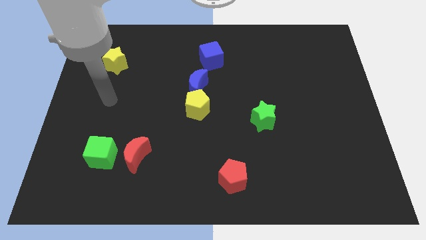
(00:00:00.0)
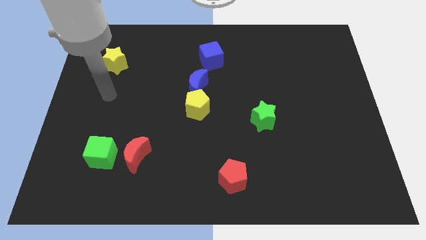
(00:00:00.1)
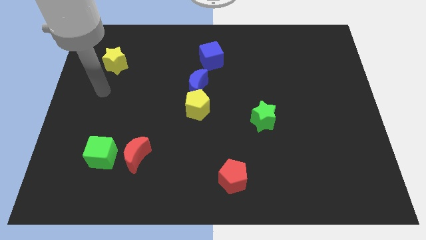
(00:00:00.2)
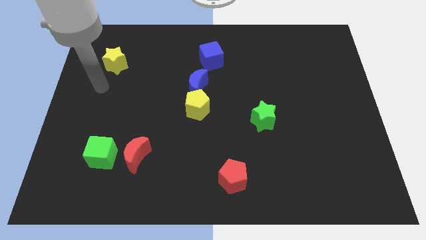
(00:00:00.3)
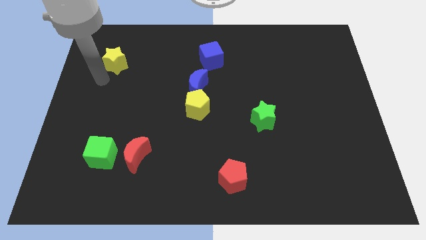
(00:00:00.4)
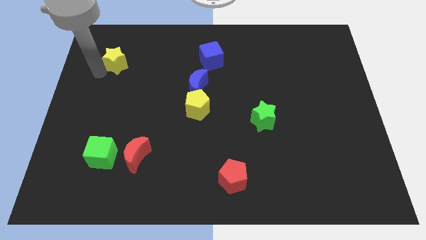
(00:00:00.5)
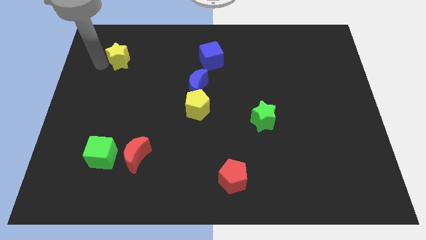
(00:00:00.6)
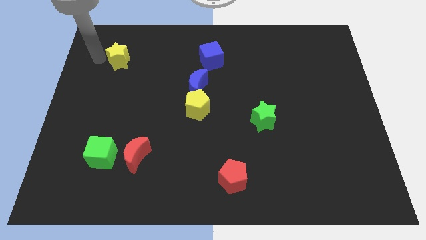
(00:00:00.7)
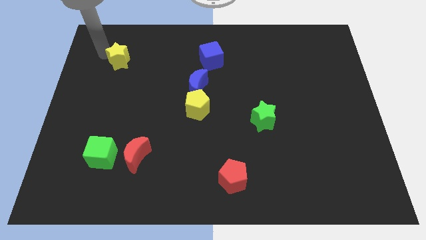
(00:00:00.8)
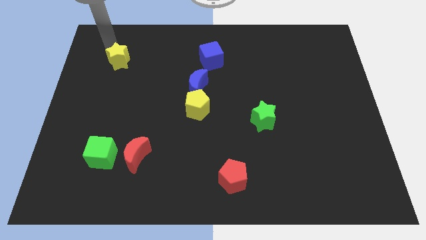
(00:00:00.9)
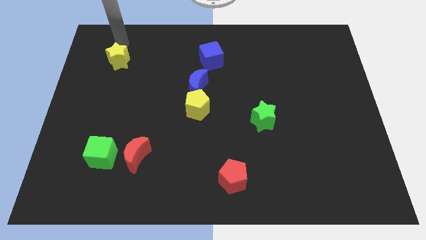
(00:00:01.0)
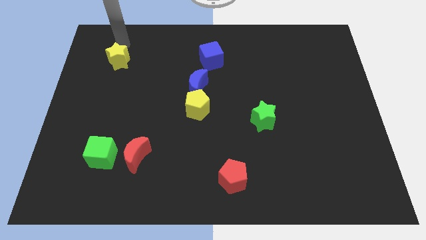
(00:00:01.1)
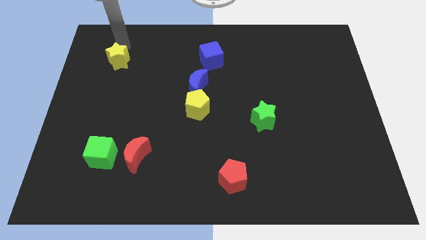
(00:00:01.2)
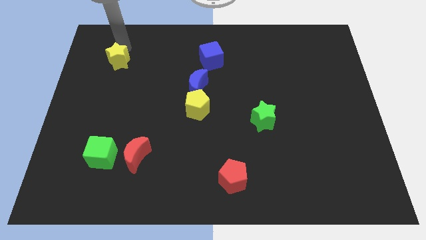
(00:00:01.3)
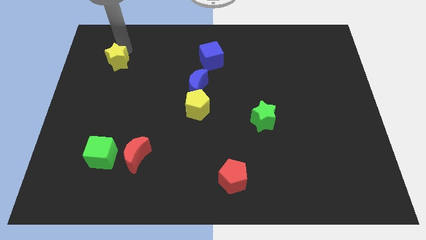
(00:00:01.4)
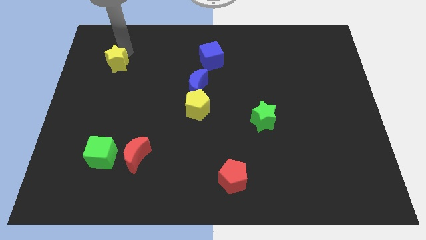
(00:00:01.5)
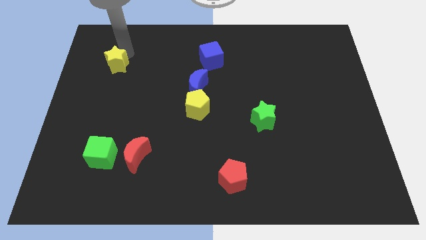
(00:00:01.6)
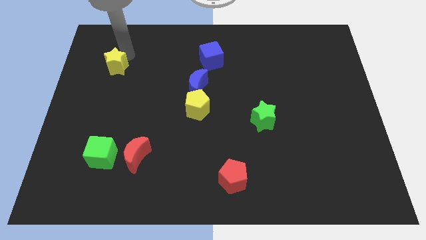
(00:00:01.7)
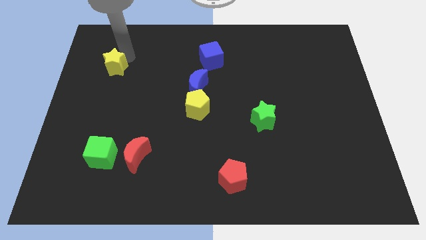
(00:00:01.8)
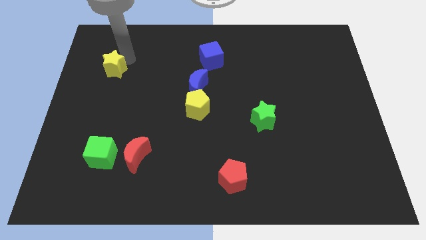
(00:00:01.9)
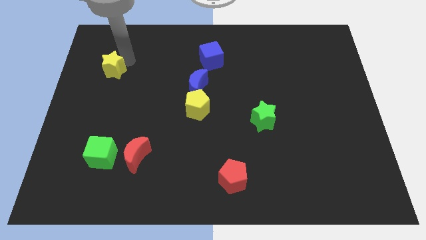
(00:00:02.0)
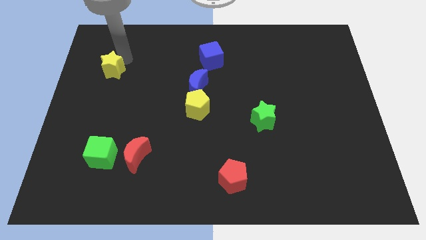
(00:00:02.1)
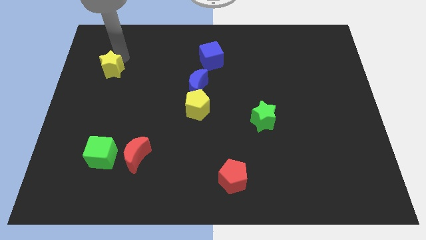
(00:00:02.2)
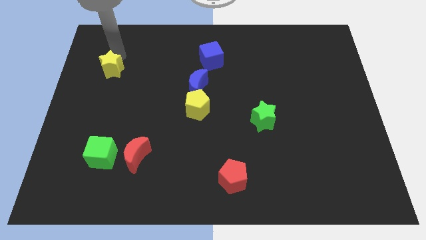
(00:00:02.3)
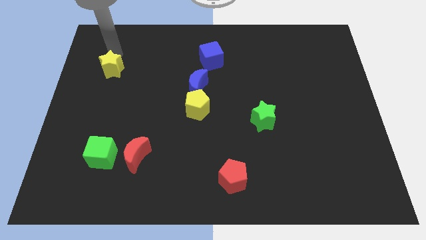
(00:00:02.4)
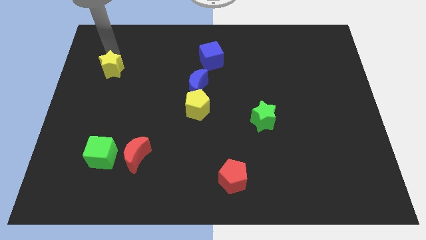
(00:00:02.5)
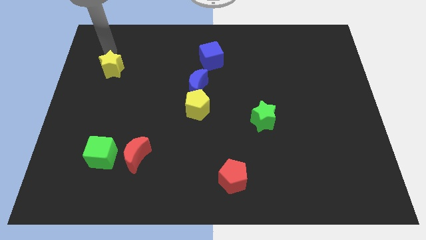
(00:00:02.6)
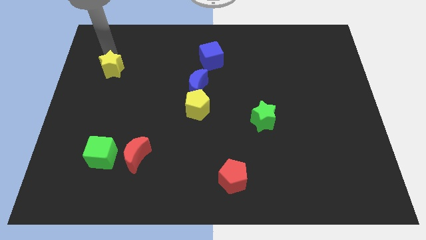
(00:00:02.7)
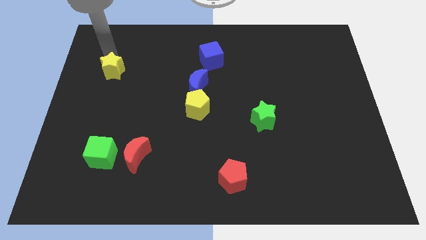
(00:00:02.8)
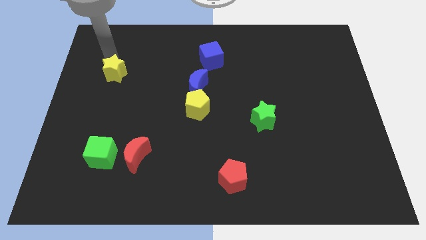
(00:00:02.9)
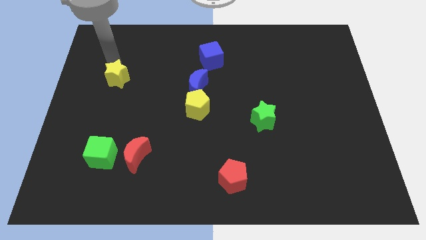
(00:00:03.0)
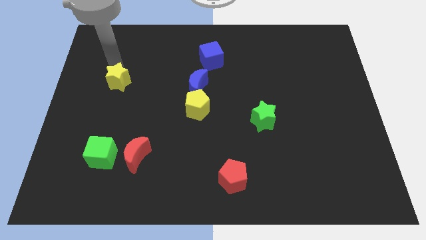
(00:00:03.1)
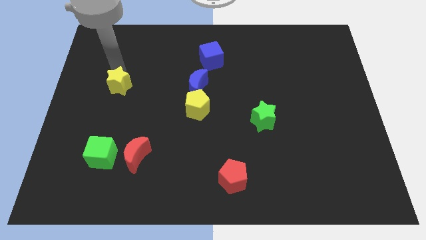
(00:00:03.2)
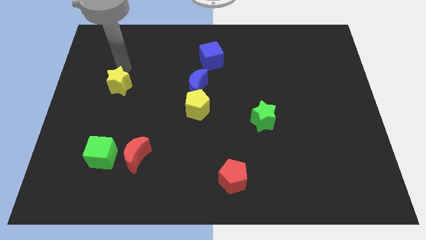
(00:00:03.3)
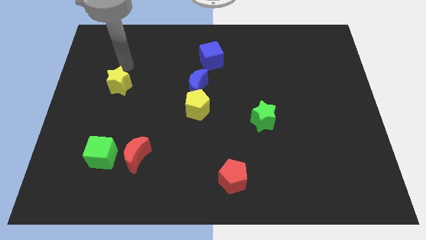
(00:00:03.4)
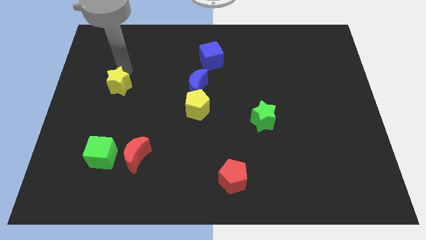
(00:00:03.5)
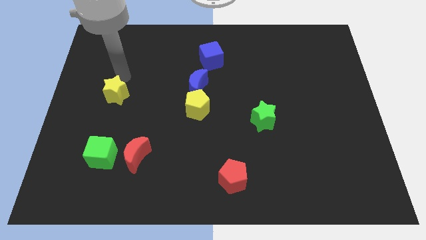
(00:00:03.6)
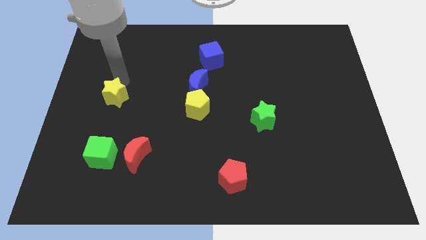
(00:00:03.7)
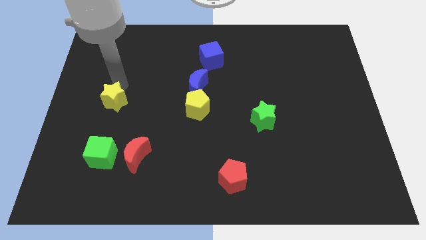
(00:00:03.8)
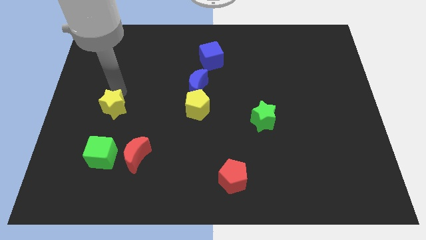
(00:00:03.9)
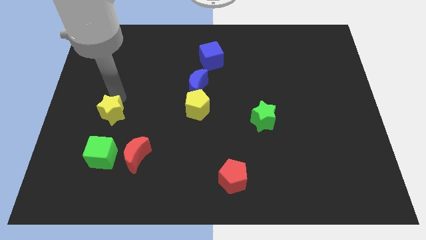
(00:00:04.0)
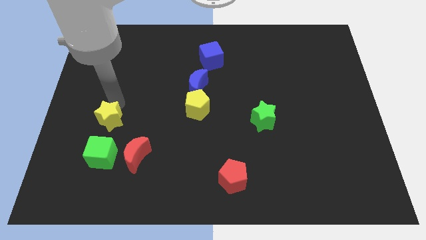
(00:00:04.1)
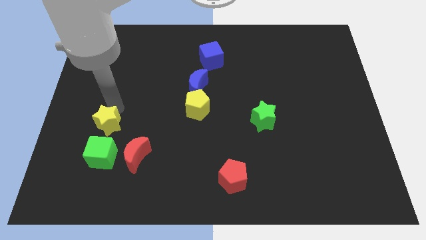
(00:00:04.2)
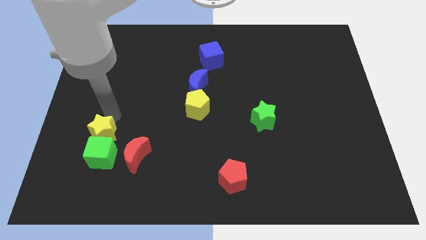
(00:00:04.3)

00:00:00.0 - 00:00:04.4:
push the yellow star close to the green cube

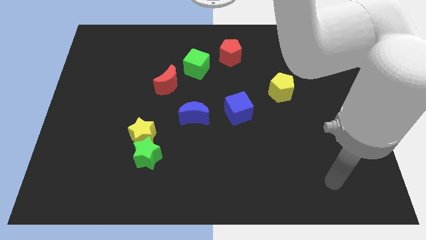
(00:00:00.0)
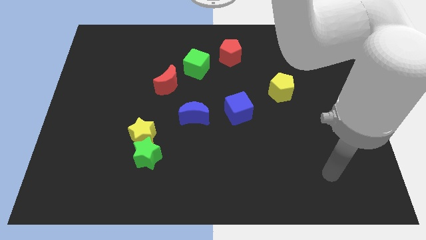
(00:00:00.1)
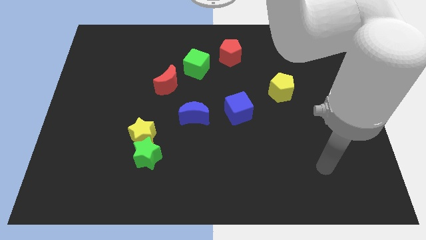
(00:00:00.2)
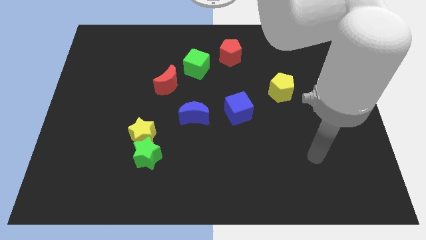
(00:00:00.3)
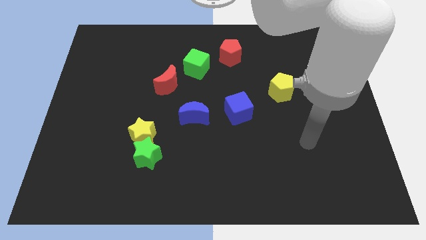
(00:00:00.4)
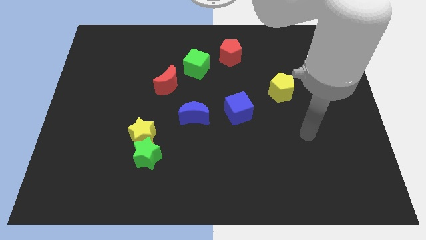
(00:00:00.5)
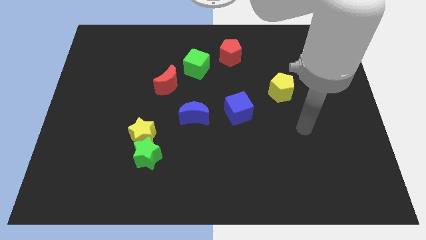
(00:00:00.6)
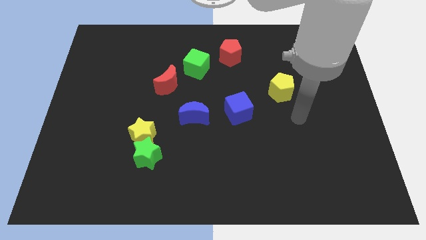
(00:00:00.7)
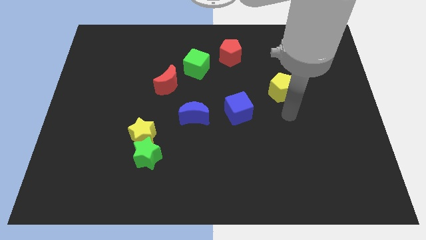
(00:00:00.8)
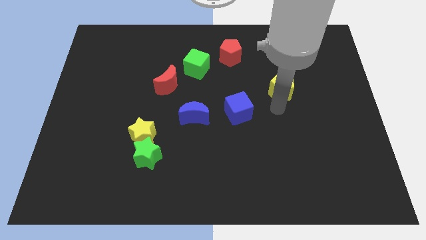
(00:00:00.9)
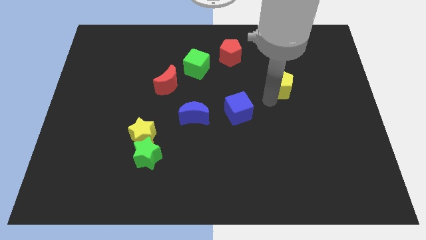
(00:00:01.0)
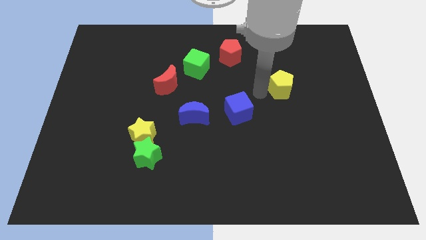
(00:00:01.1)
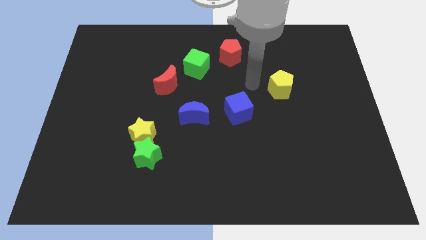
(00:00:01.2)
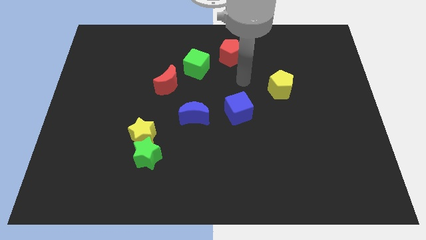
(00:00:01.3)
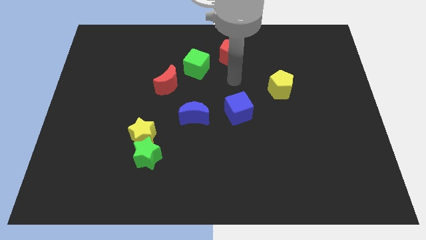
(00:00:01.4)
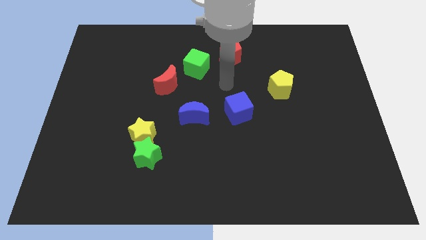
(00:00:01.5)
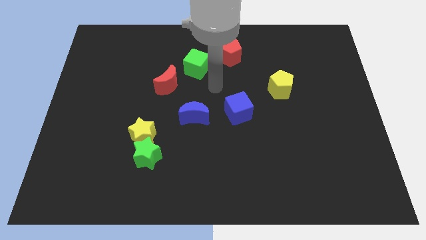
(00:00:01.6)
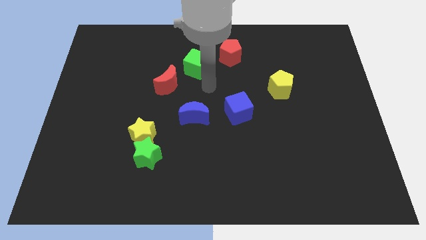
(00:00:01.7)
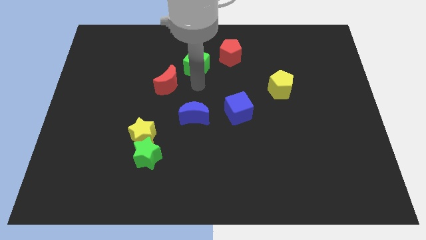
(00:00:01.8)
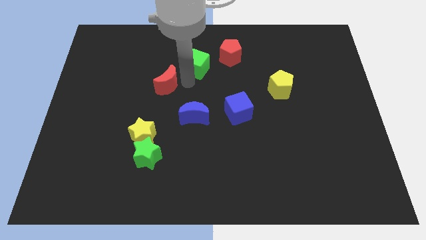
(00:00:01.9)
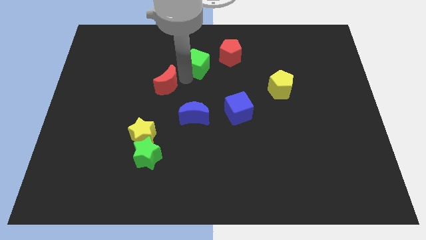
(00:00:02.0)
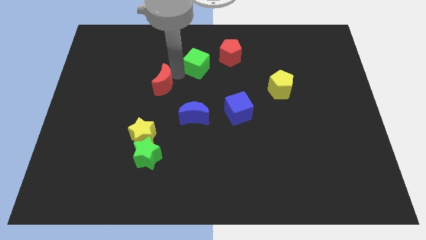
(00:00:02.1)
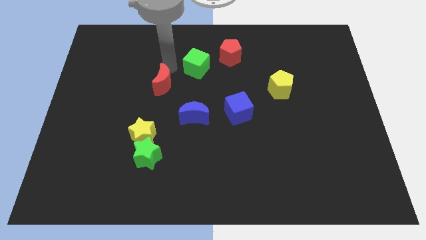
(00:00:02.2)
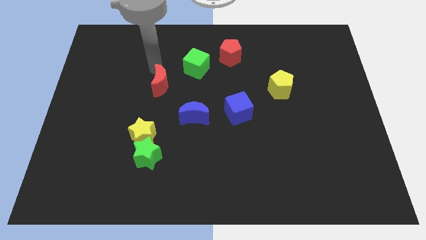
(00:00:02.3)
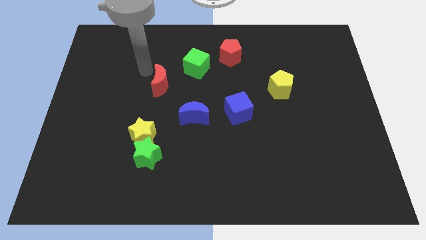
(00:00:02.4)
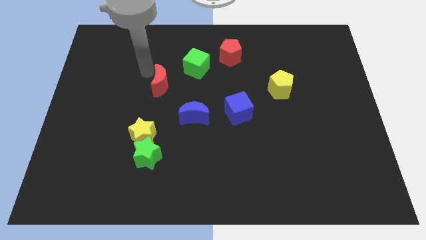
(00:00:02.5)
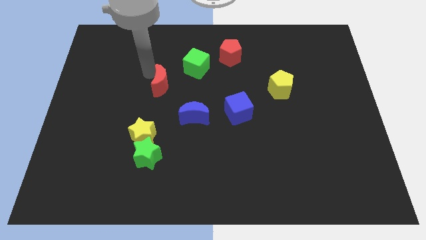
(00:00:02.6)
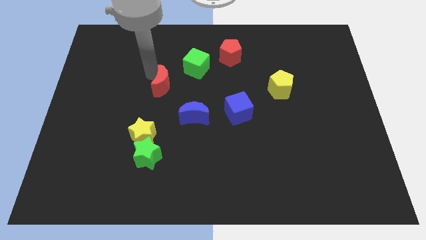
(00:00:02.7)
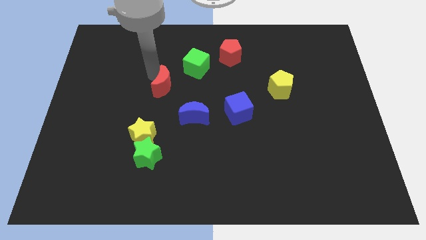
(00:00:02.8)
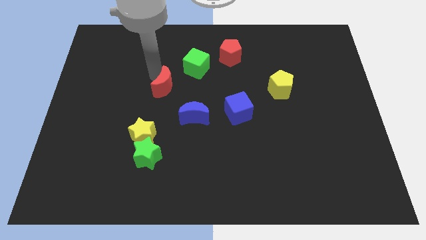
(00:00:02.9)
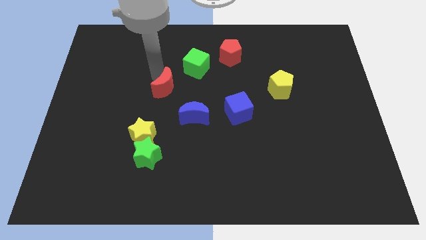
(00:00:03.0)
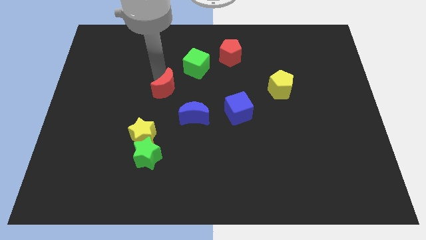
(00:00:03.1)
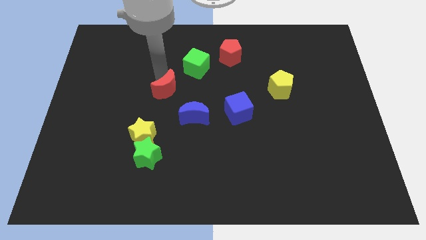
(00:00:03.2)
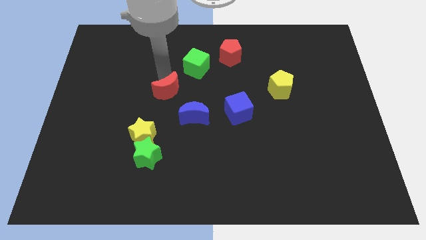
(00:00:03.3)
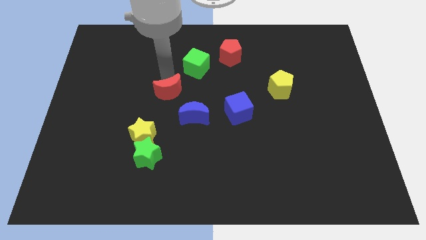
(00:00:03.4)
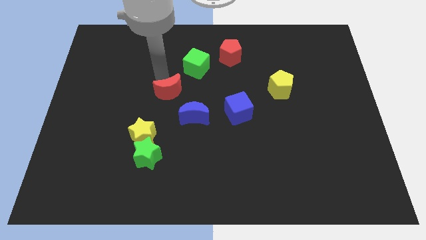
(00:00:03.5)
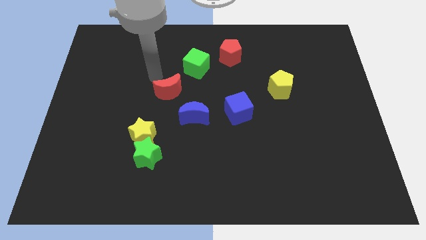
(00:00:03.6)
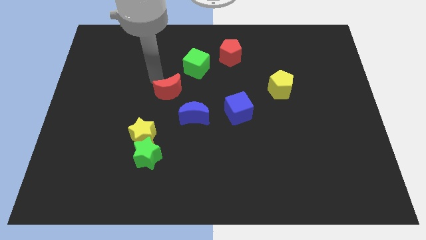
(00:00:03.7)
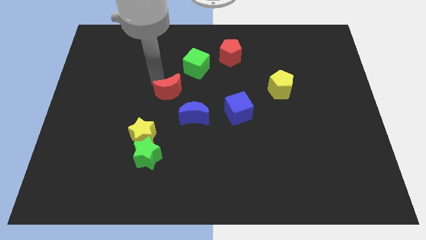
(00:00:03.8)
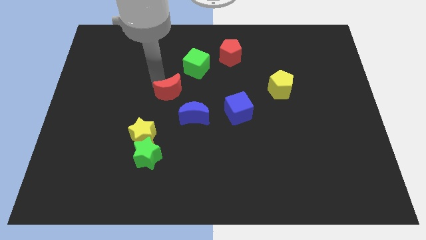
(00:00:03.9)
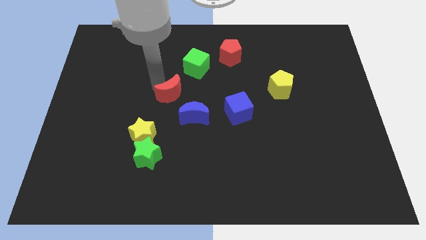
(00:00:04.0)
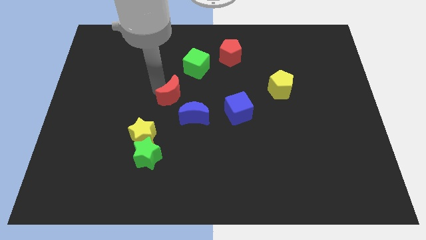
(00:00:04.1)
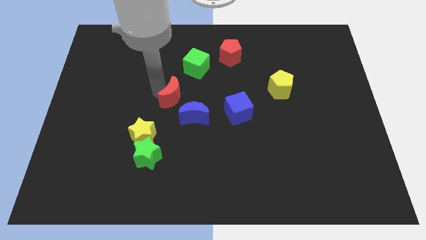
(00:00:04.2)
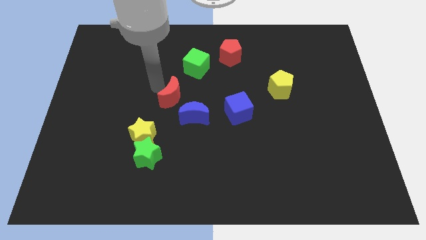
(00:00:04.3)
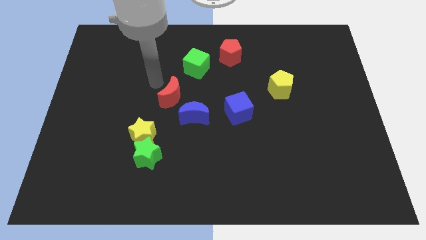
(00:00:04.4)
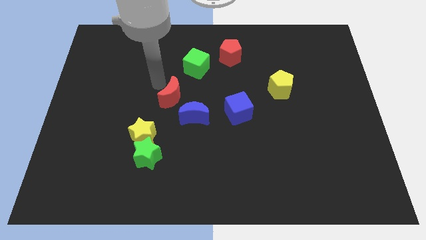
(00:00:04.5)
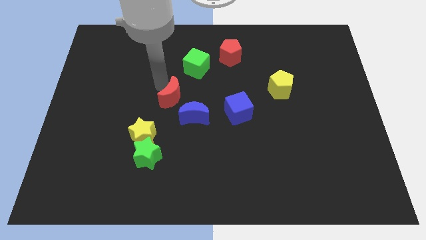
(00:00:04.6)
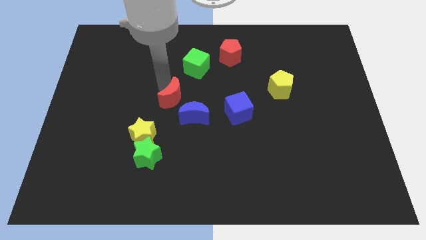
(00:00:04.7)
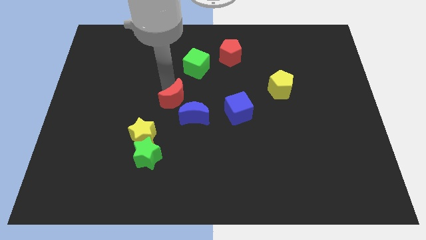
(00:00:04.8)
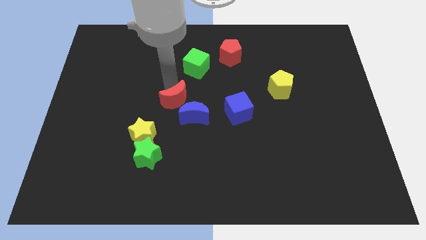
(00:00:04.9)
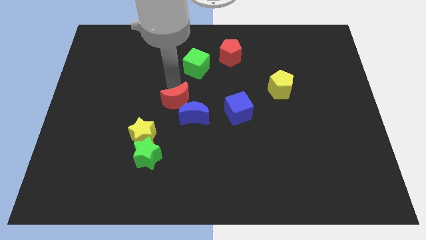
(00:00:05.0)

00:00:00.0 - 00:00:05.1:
push the red moon to the blue moon
